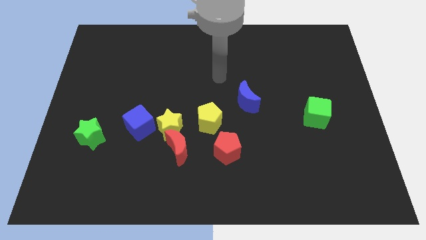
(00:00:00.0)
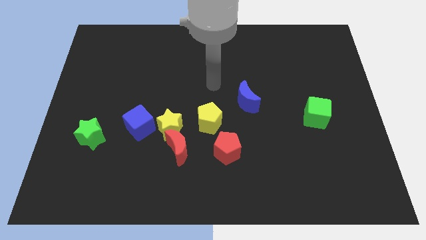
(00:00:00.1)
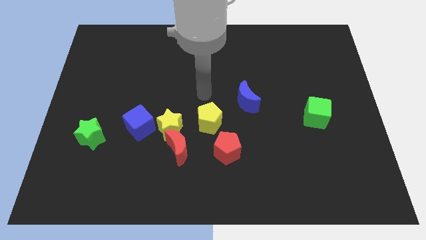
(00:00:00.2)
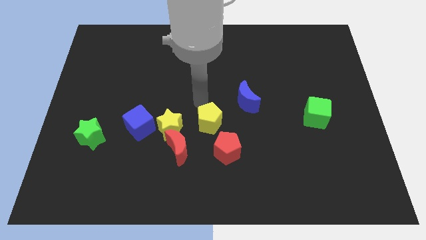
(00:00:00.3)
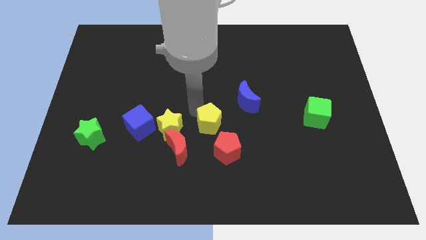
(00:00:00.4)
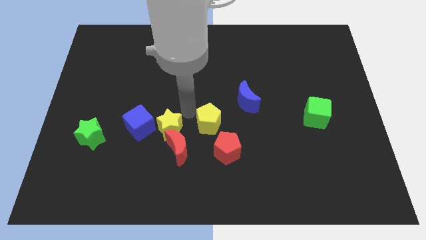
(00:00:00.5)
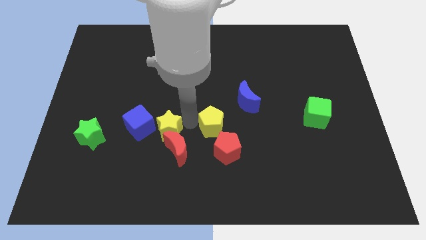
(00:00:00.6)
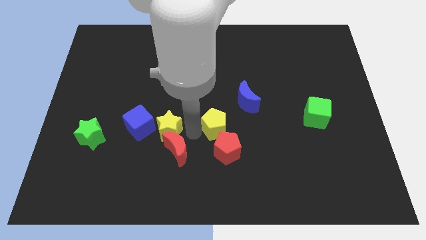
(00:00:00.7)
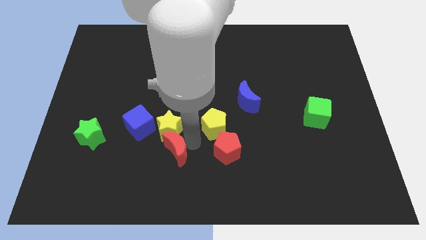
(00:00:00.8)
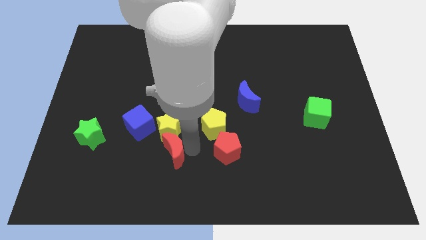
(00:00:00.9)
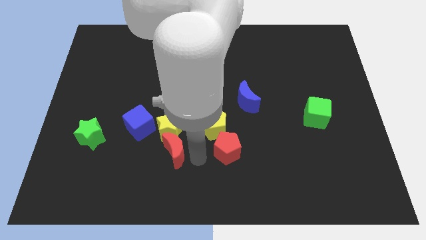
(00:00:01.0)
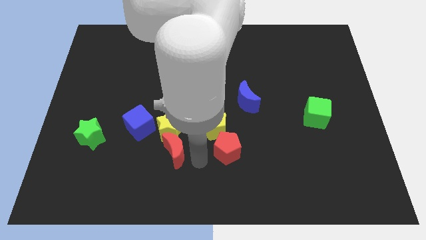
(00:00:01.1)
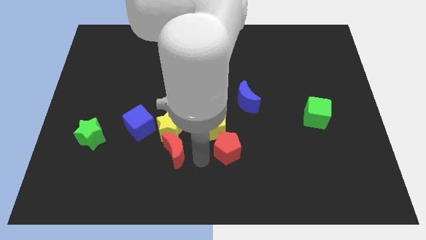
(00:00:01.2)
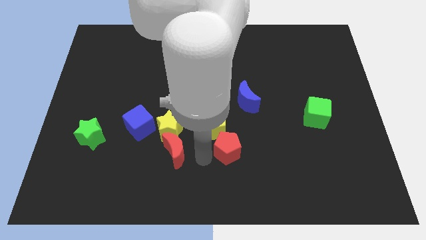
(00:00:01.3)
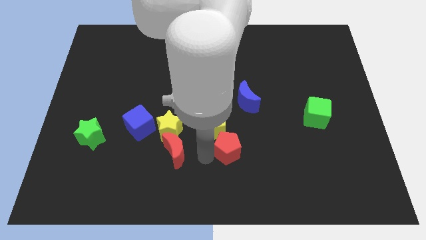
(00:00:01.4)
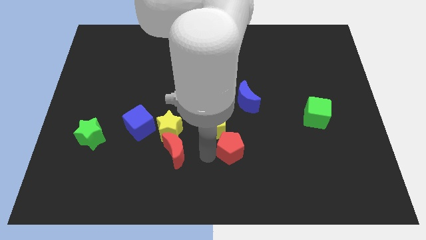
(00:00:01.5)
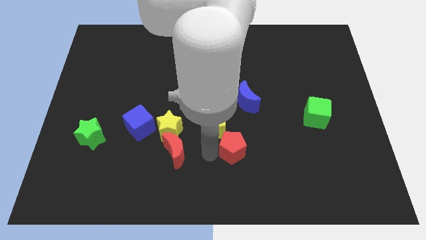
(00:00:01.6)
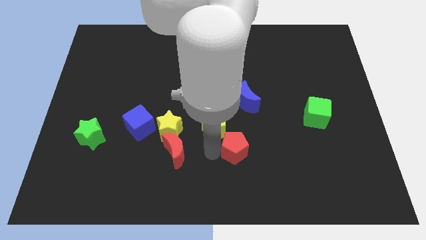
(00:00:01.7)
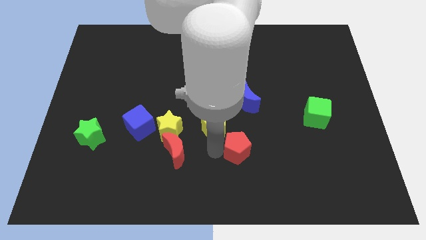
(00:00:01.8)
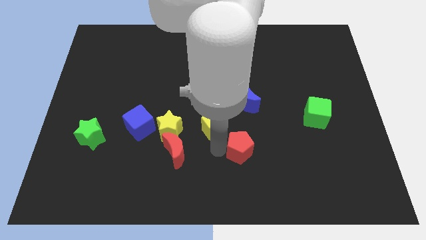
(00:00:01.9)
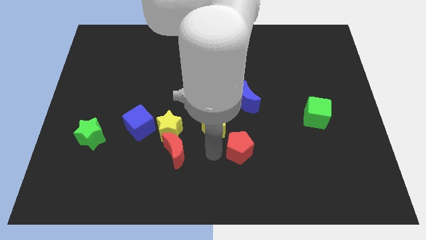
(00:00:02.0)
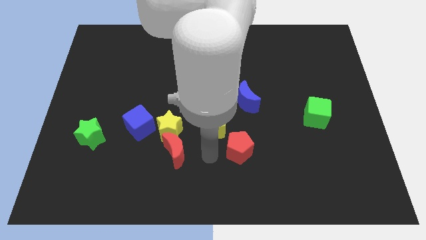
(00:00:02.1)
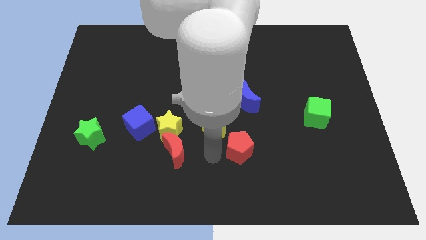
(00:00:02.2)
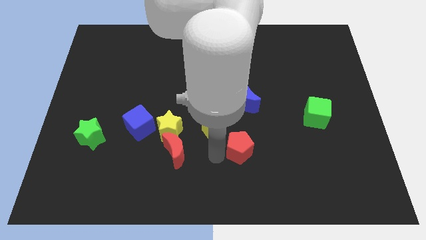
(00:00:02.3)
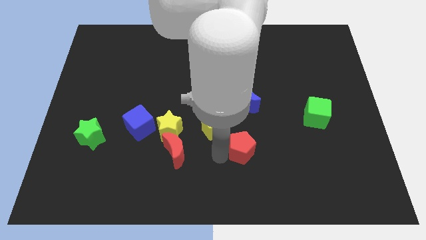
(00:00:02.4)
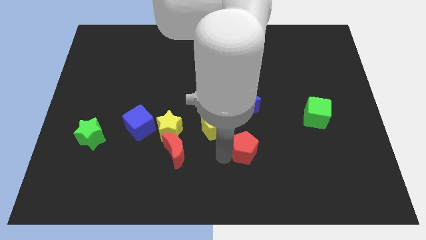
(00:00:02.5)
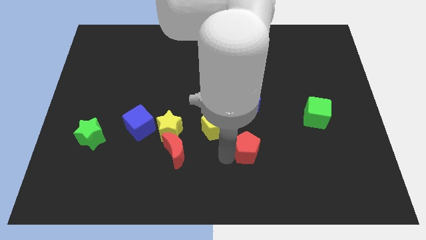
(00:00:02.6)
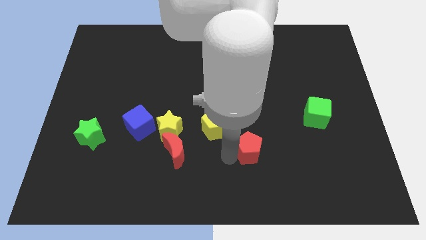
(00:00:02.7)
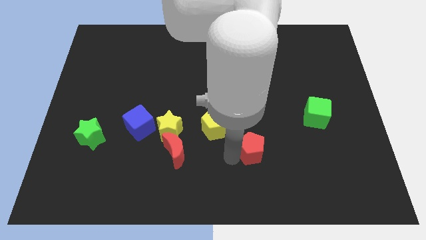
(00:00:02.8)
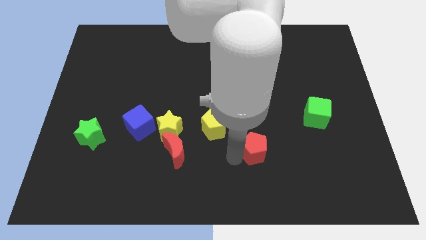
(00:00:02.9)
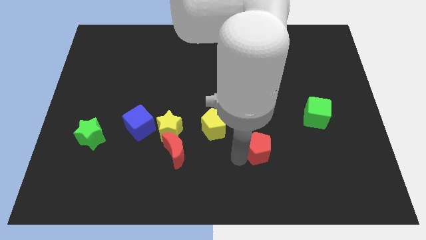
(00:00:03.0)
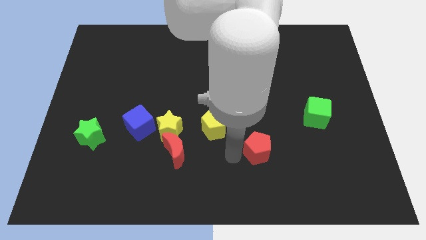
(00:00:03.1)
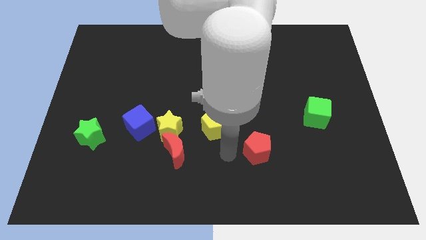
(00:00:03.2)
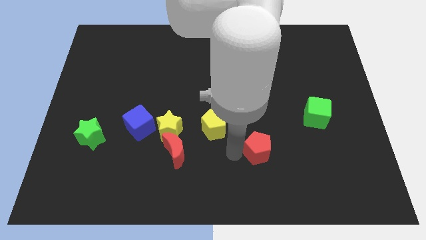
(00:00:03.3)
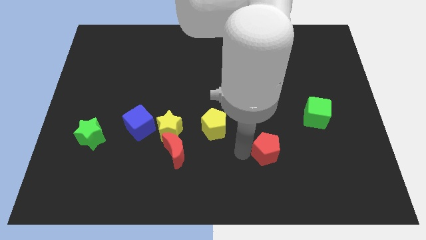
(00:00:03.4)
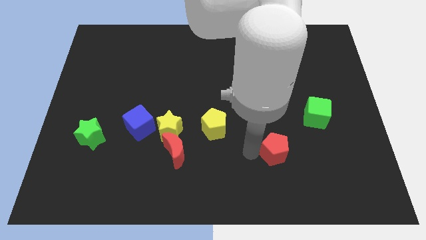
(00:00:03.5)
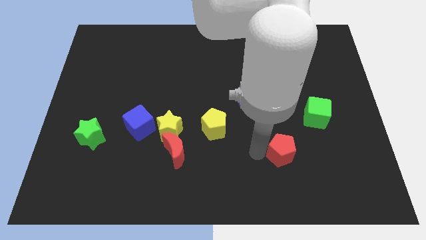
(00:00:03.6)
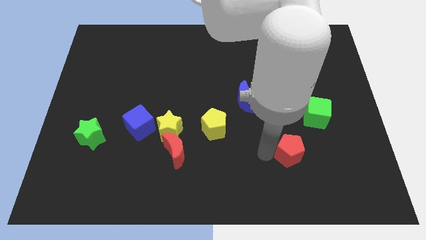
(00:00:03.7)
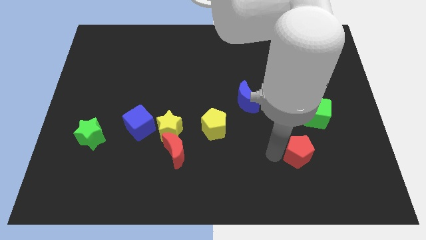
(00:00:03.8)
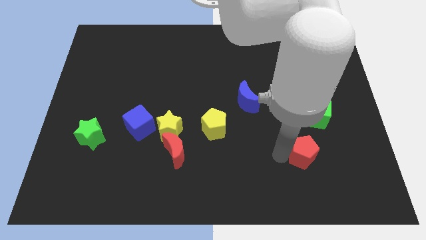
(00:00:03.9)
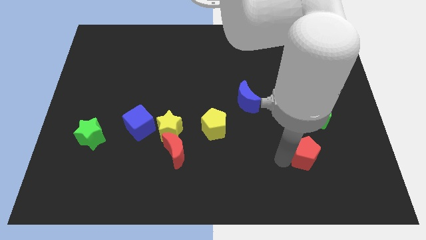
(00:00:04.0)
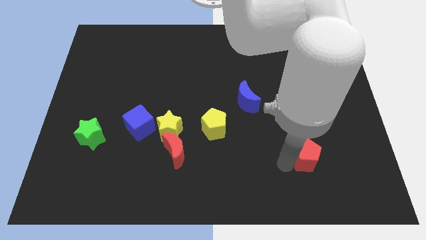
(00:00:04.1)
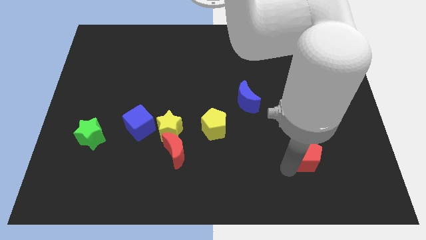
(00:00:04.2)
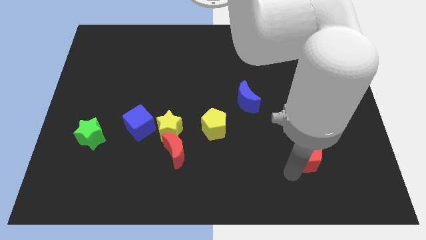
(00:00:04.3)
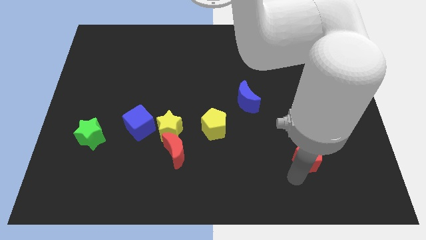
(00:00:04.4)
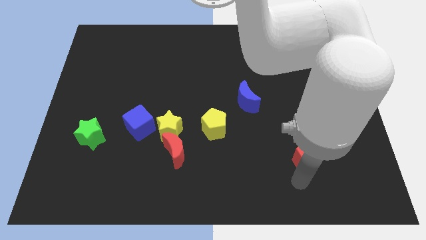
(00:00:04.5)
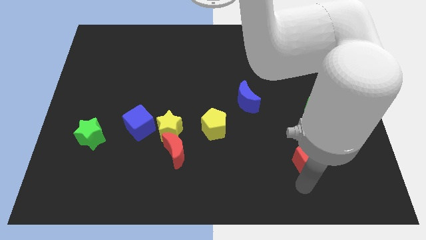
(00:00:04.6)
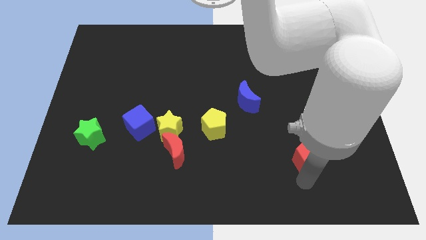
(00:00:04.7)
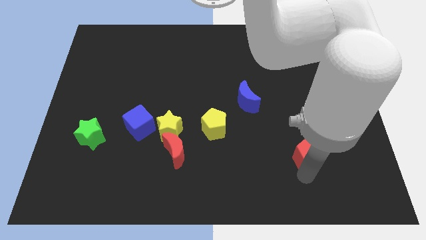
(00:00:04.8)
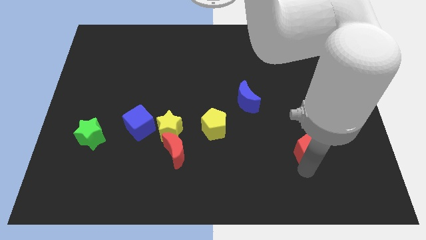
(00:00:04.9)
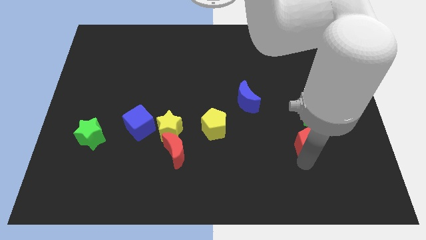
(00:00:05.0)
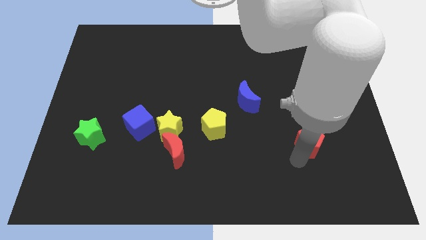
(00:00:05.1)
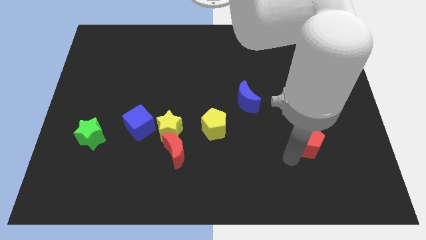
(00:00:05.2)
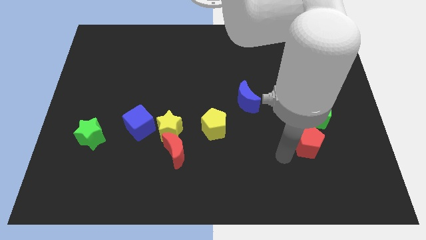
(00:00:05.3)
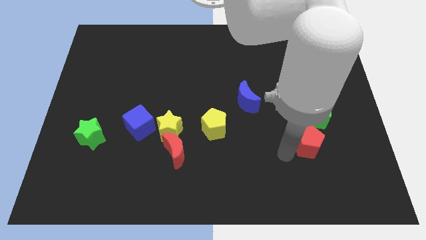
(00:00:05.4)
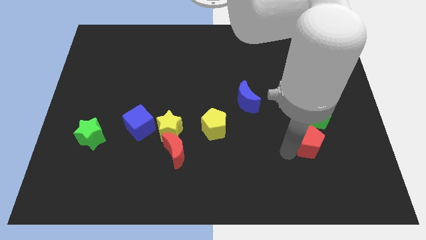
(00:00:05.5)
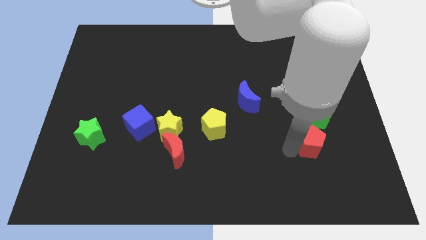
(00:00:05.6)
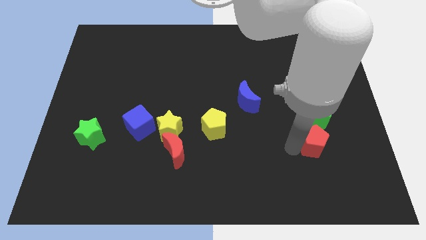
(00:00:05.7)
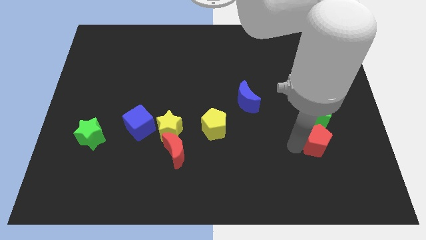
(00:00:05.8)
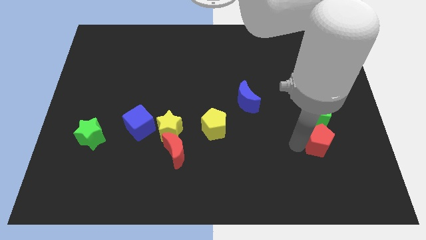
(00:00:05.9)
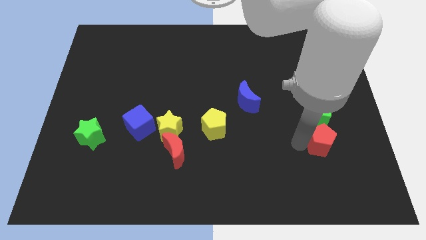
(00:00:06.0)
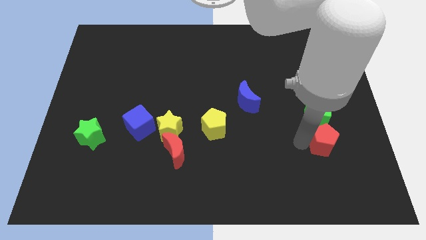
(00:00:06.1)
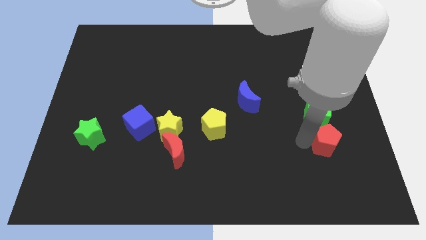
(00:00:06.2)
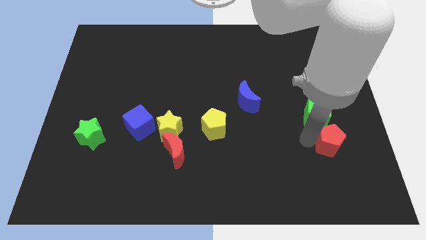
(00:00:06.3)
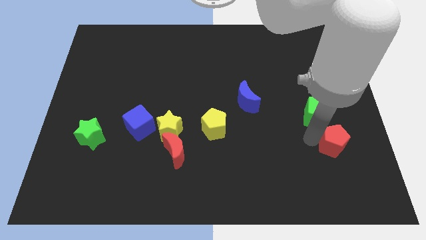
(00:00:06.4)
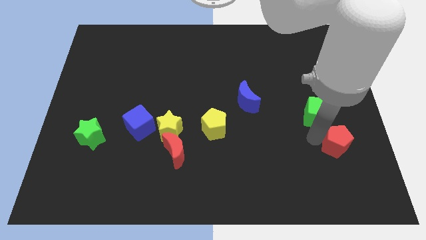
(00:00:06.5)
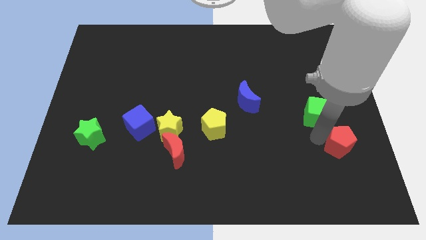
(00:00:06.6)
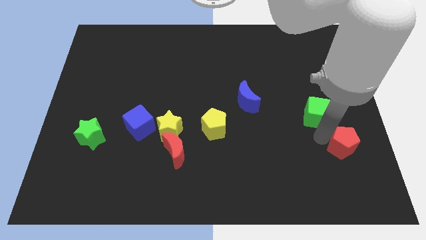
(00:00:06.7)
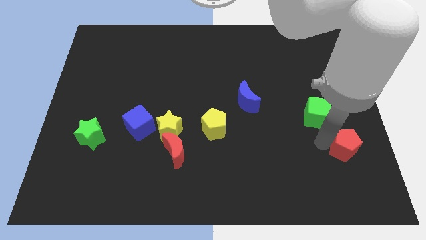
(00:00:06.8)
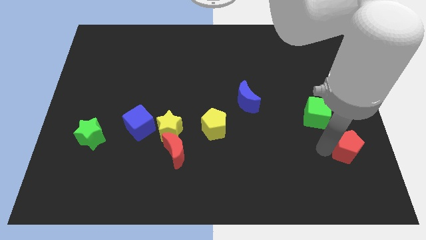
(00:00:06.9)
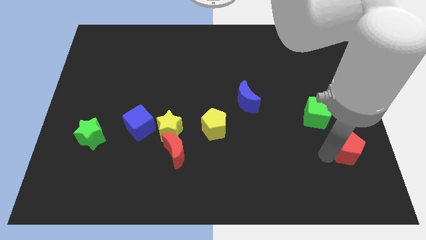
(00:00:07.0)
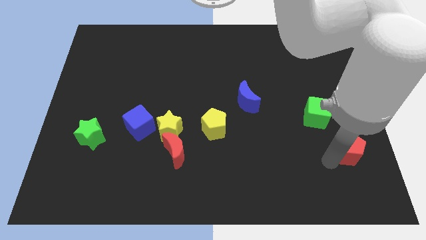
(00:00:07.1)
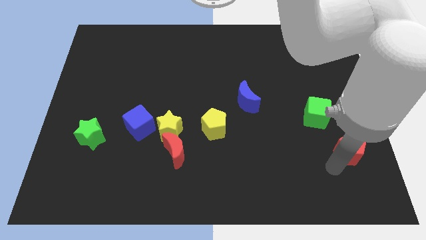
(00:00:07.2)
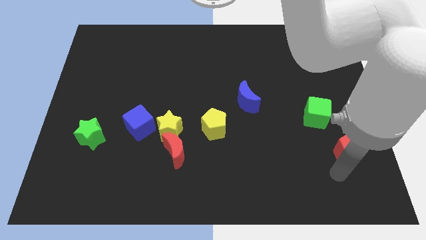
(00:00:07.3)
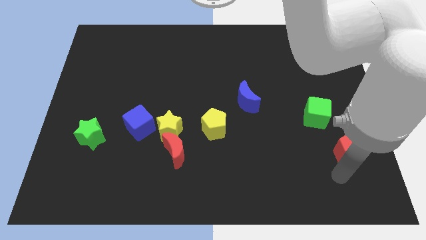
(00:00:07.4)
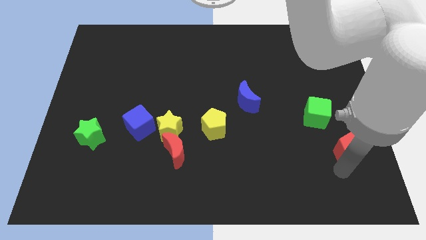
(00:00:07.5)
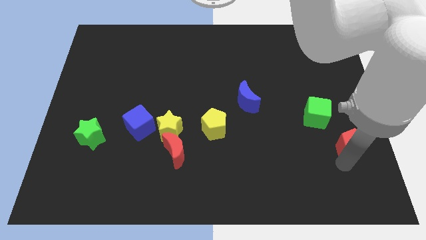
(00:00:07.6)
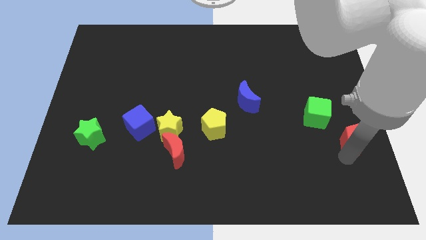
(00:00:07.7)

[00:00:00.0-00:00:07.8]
move the red pentagon to the right side of the board
